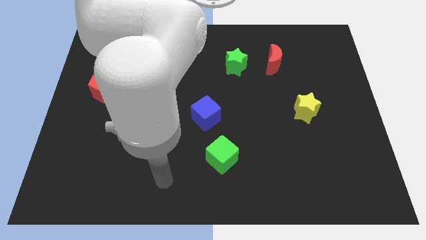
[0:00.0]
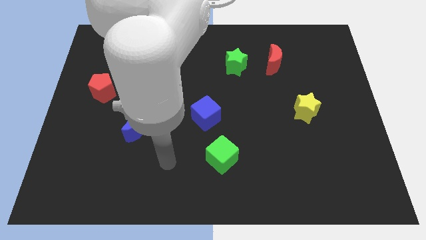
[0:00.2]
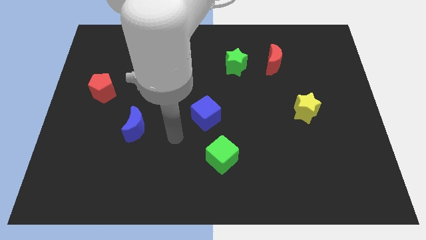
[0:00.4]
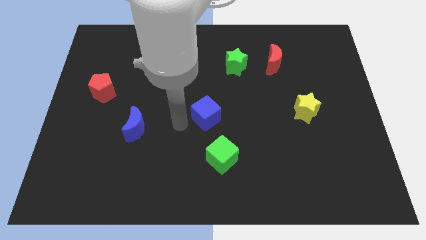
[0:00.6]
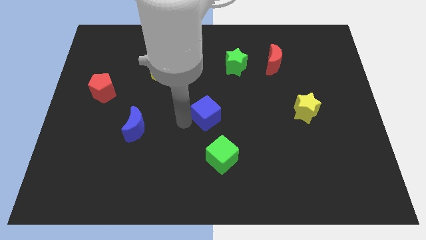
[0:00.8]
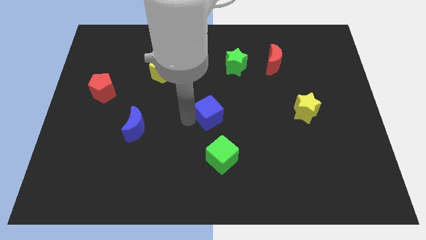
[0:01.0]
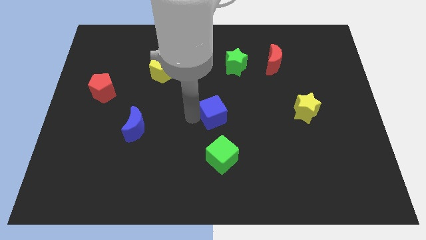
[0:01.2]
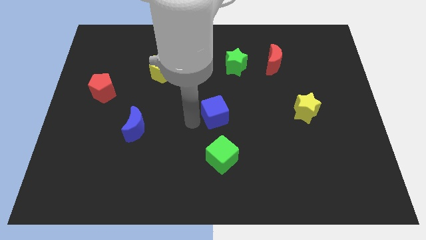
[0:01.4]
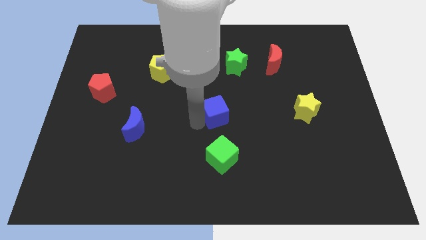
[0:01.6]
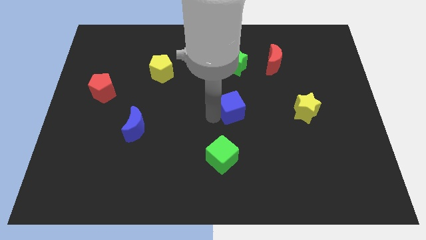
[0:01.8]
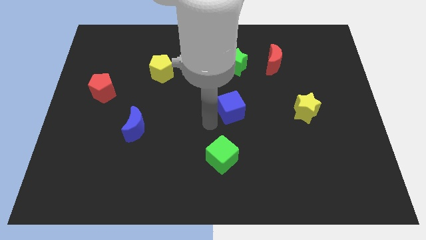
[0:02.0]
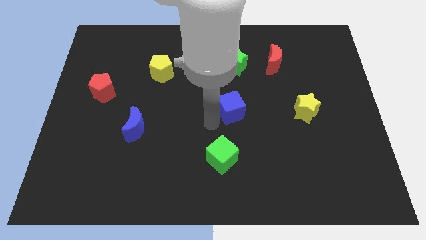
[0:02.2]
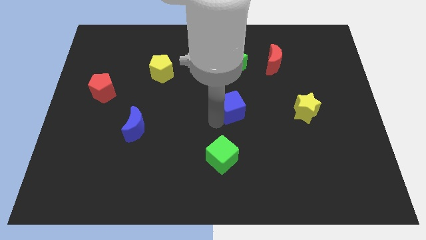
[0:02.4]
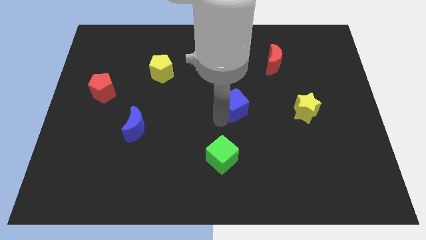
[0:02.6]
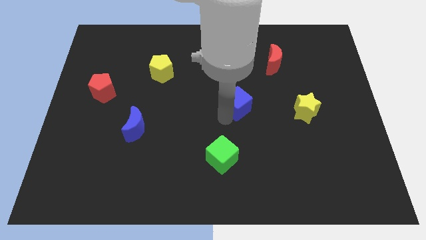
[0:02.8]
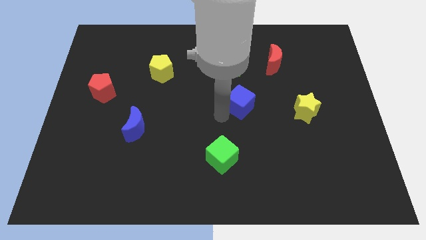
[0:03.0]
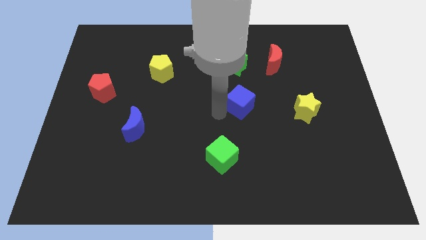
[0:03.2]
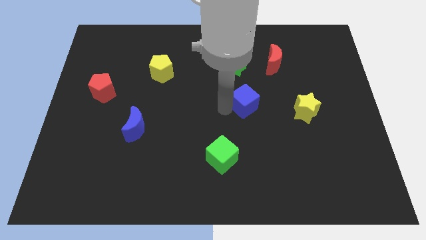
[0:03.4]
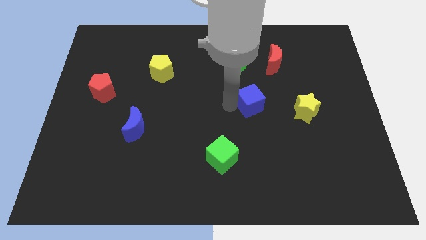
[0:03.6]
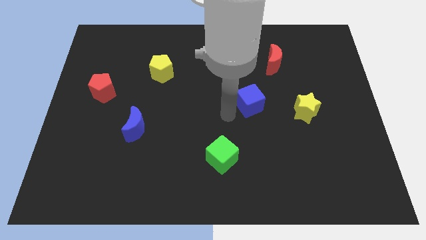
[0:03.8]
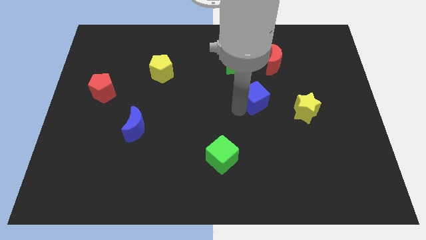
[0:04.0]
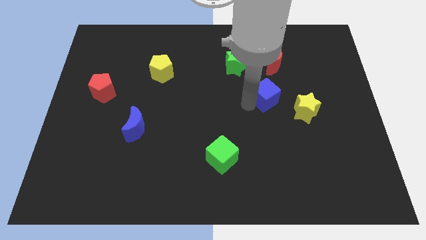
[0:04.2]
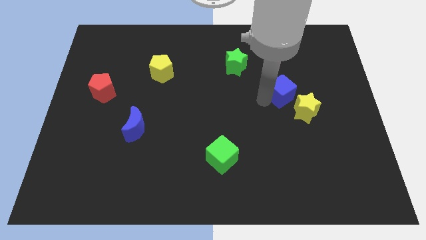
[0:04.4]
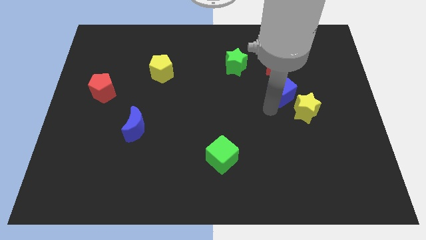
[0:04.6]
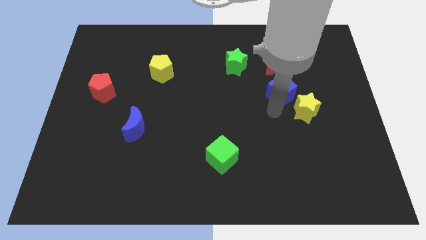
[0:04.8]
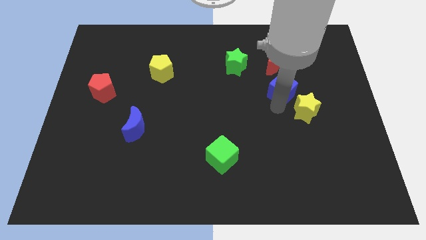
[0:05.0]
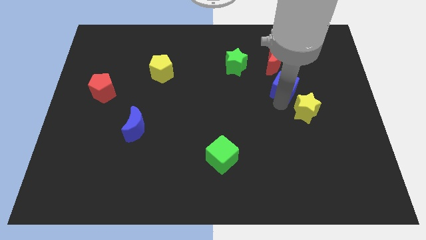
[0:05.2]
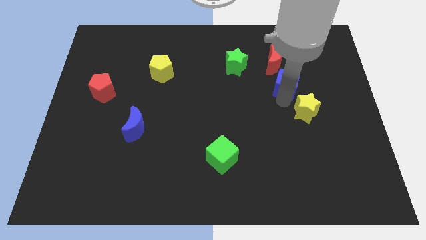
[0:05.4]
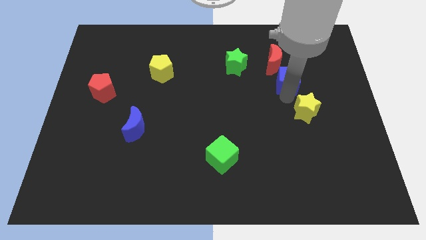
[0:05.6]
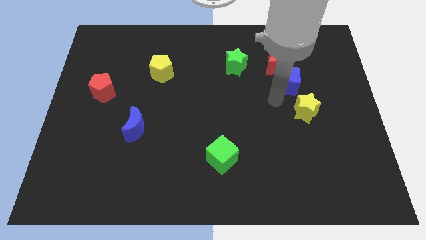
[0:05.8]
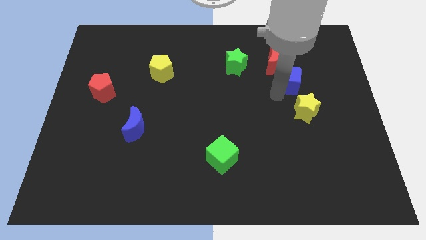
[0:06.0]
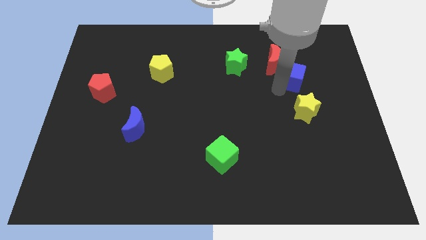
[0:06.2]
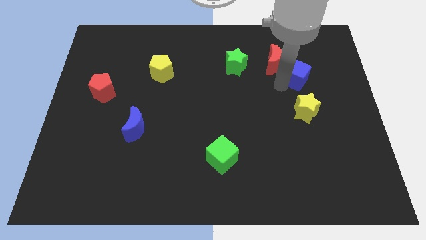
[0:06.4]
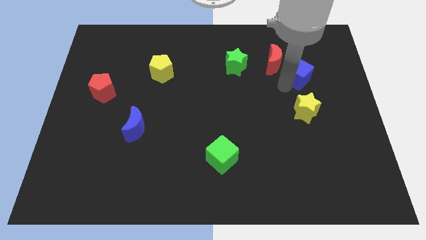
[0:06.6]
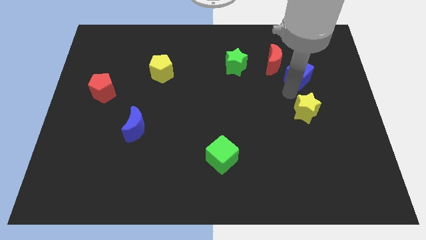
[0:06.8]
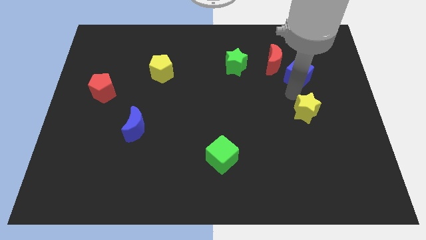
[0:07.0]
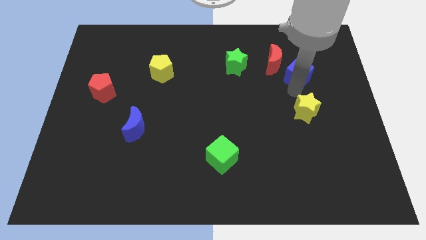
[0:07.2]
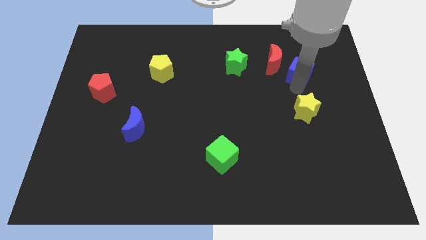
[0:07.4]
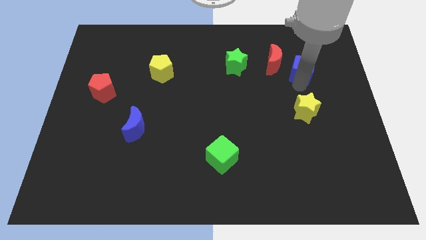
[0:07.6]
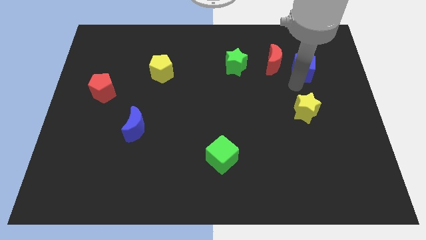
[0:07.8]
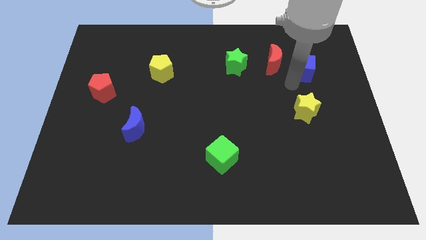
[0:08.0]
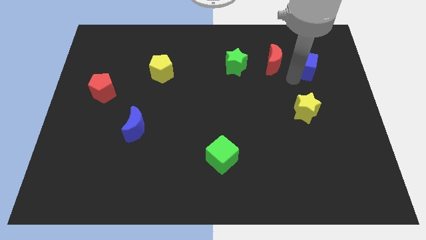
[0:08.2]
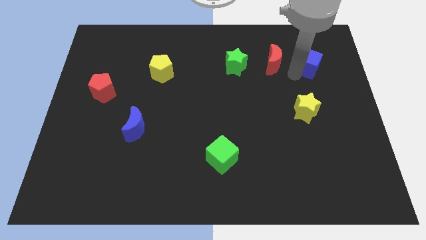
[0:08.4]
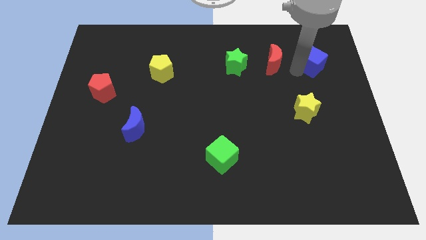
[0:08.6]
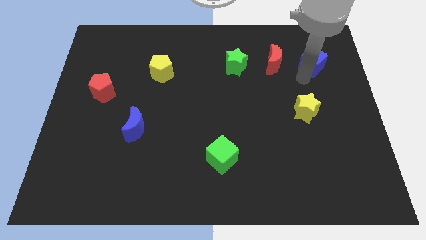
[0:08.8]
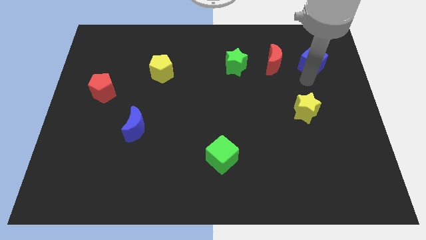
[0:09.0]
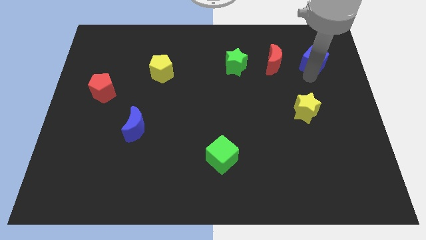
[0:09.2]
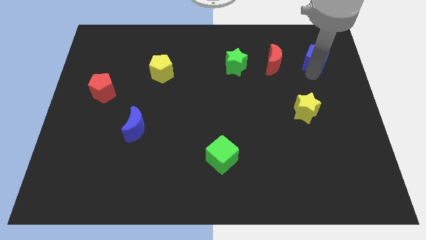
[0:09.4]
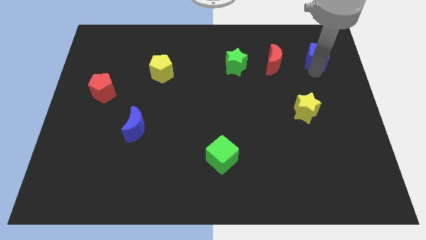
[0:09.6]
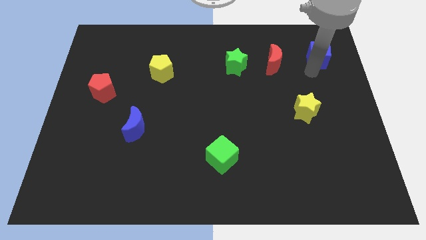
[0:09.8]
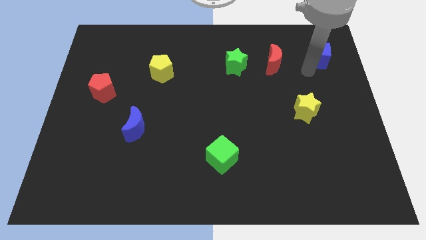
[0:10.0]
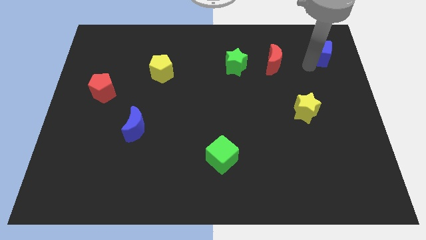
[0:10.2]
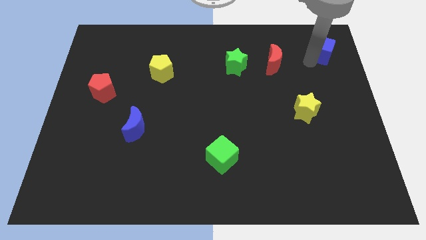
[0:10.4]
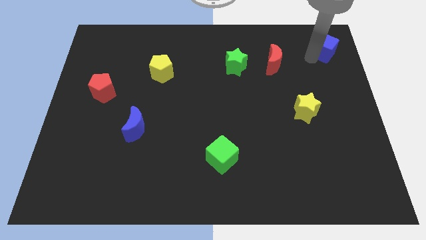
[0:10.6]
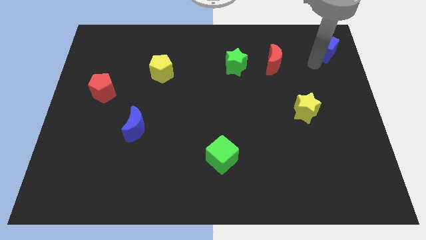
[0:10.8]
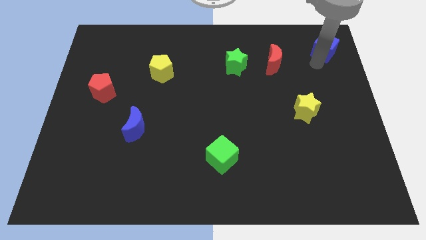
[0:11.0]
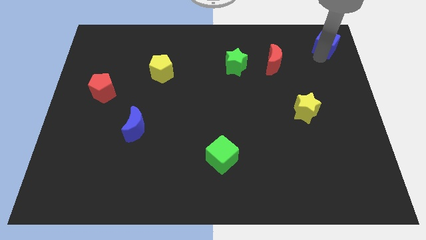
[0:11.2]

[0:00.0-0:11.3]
put the blue cube to the upper right corner

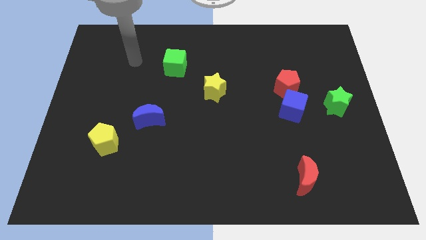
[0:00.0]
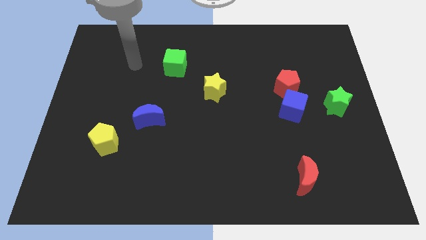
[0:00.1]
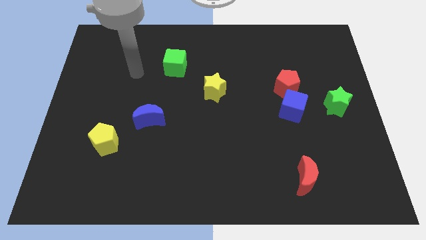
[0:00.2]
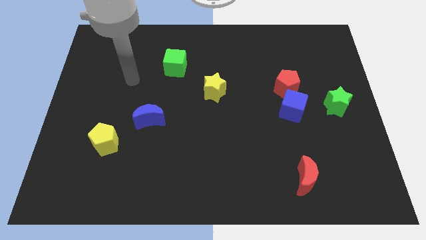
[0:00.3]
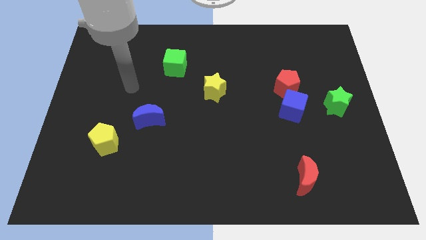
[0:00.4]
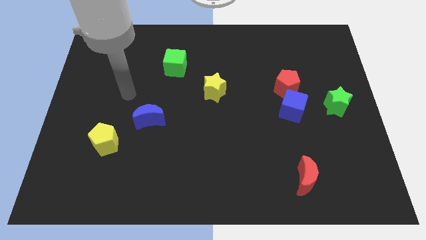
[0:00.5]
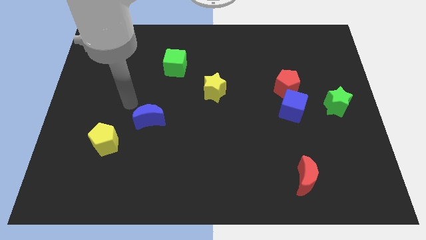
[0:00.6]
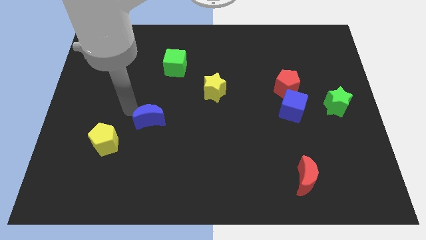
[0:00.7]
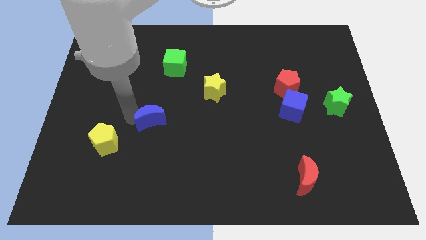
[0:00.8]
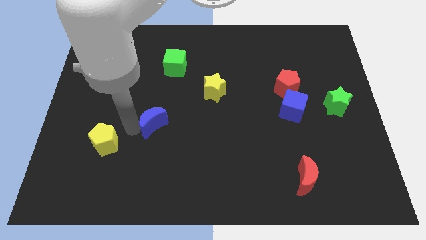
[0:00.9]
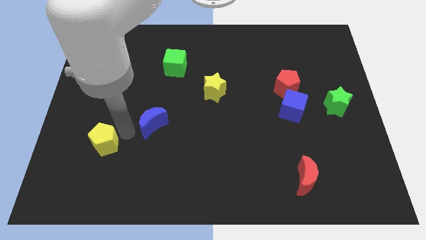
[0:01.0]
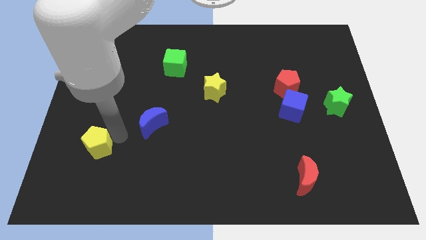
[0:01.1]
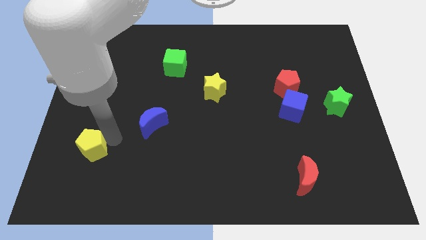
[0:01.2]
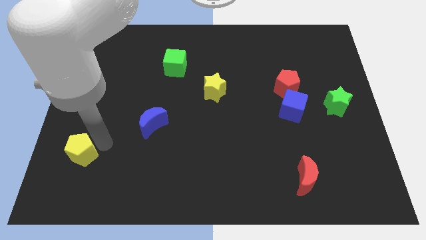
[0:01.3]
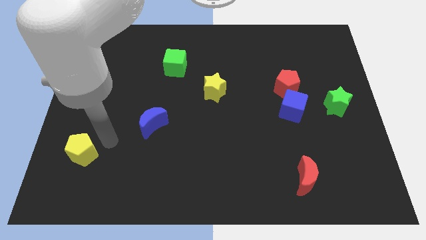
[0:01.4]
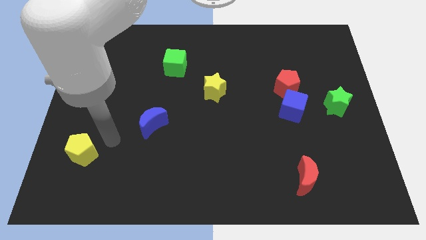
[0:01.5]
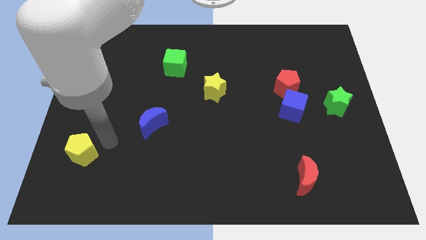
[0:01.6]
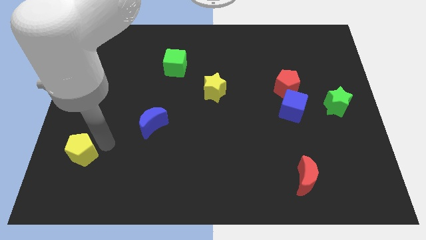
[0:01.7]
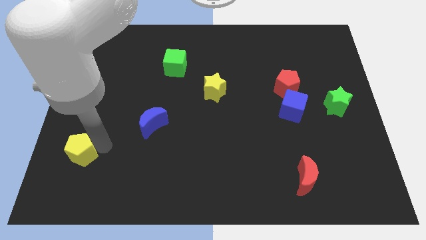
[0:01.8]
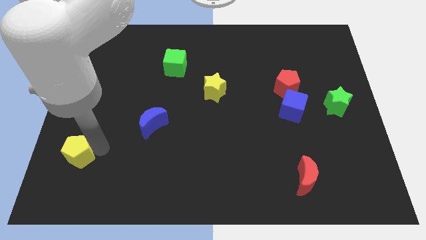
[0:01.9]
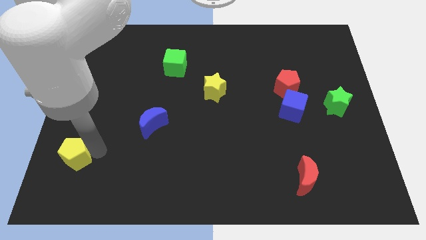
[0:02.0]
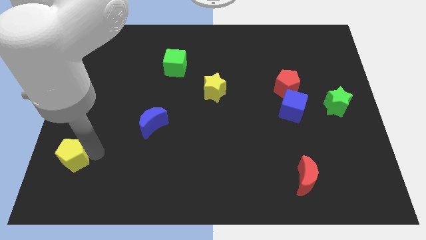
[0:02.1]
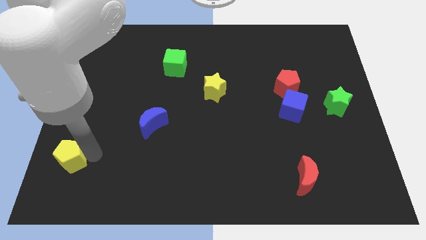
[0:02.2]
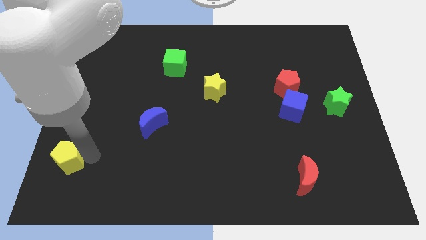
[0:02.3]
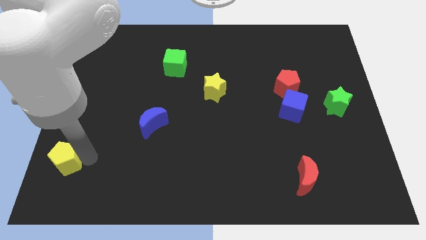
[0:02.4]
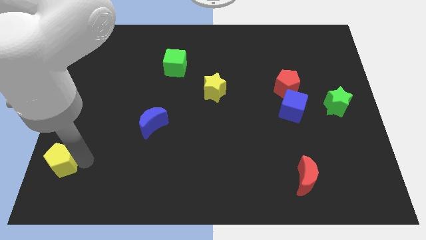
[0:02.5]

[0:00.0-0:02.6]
put the yellow pentagon to the bottom left
